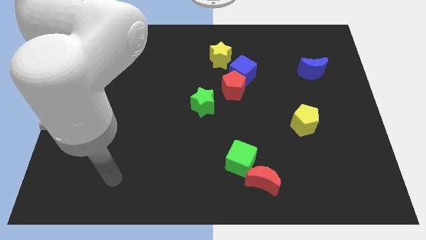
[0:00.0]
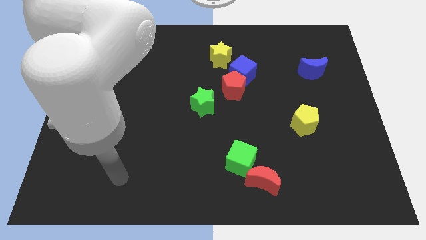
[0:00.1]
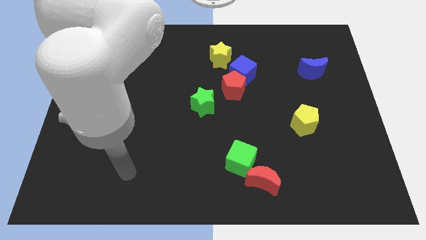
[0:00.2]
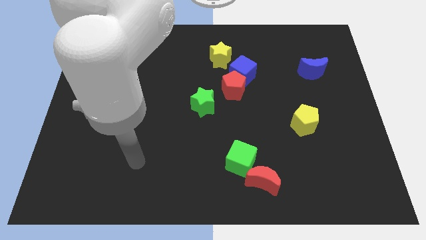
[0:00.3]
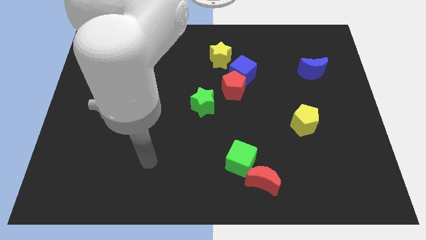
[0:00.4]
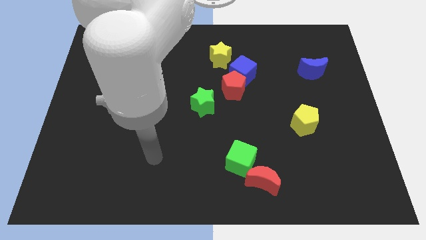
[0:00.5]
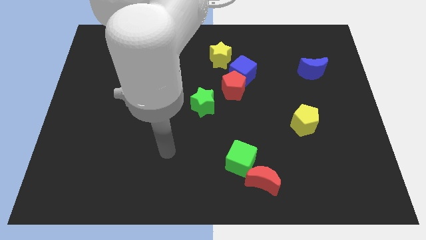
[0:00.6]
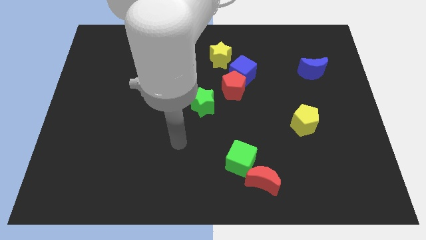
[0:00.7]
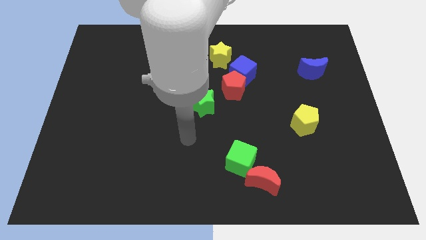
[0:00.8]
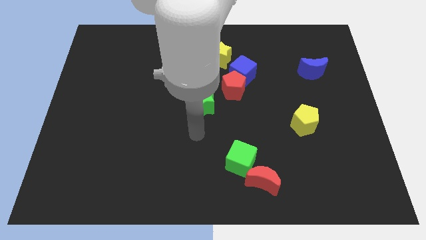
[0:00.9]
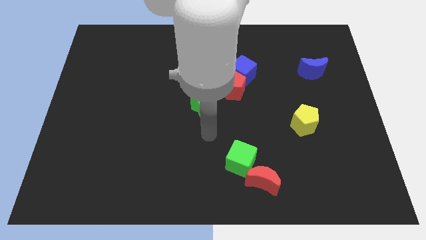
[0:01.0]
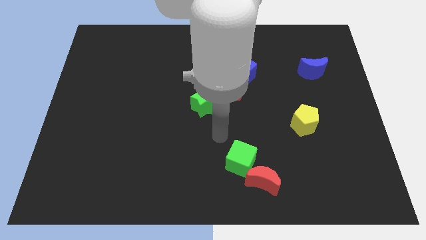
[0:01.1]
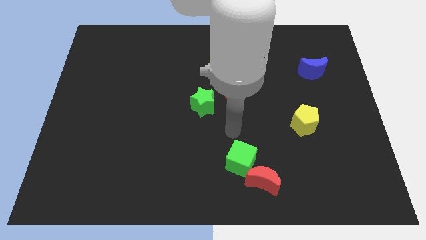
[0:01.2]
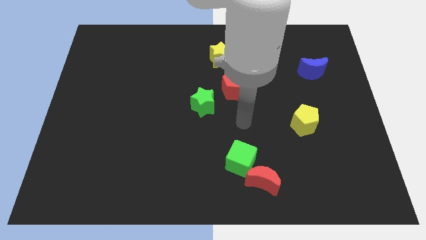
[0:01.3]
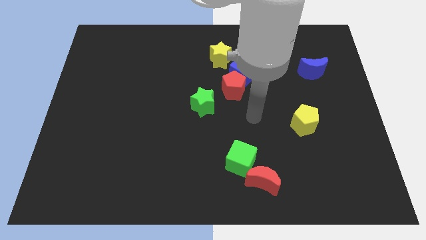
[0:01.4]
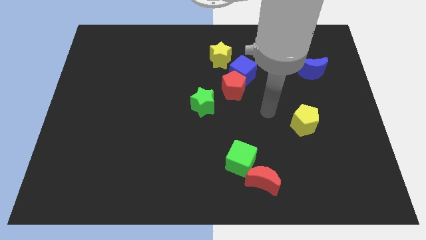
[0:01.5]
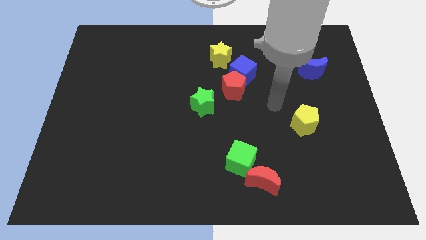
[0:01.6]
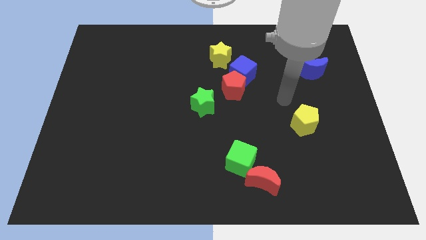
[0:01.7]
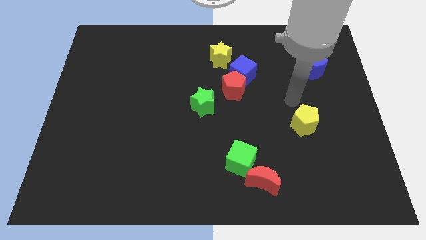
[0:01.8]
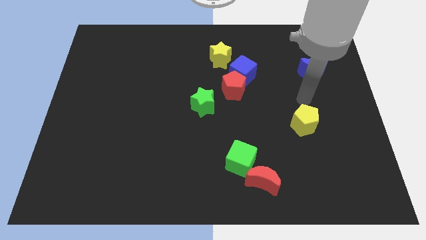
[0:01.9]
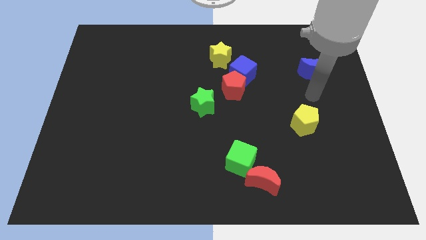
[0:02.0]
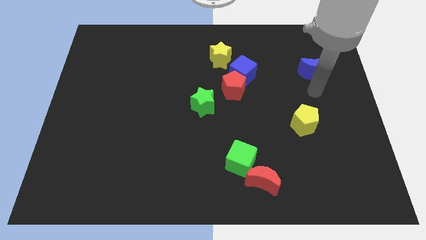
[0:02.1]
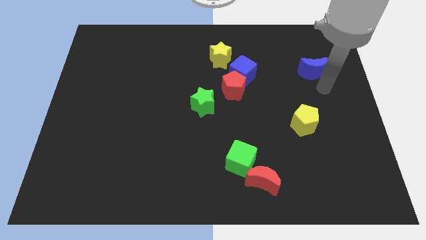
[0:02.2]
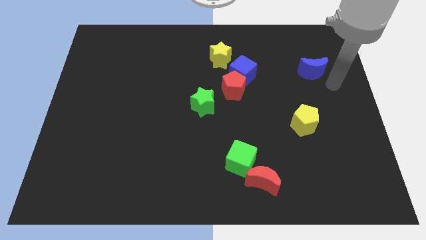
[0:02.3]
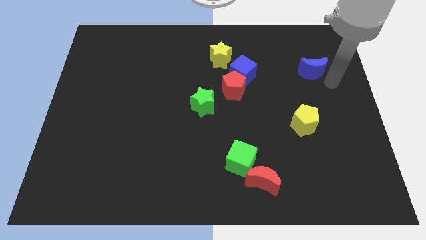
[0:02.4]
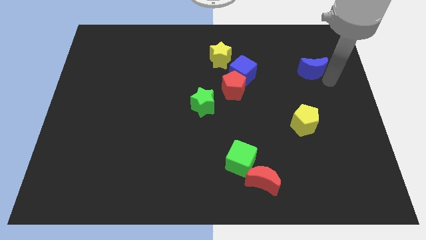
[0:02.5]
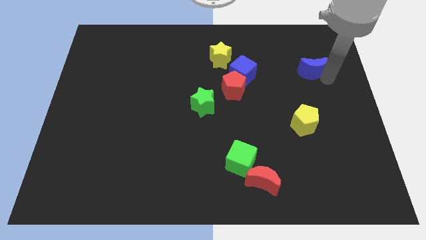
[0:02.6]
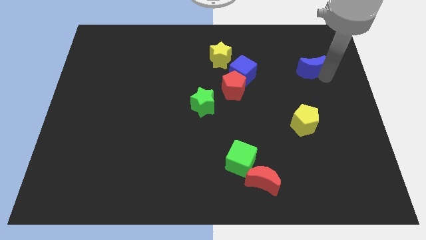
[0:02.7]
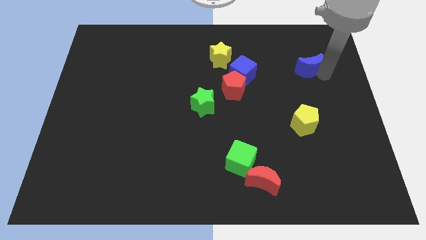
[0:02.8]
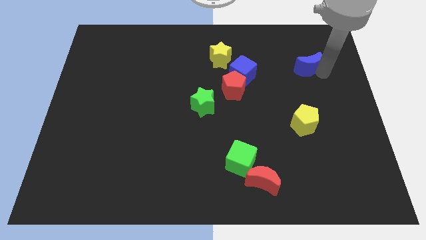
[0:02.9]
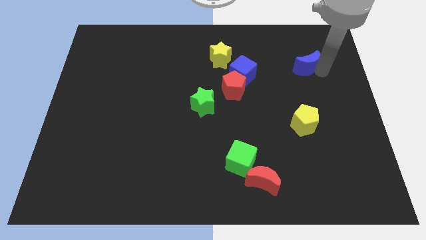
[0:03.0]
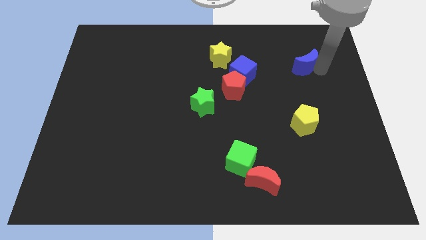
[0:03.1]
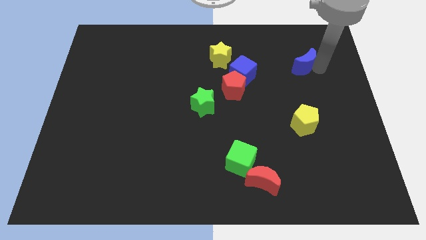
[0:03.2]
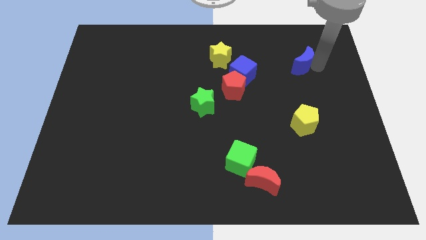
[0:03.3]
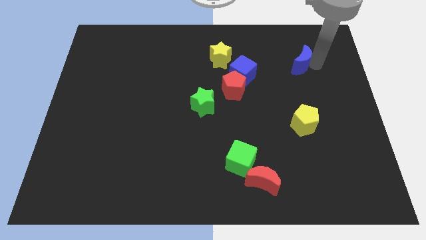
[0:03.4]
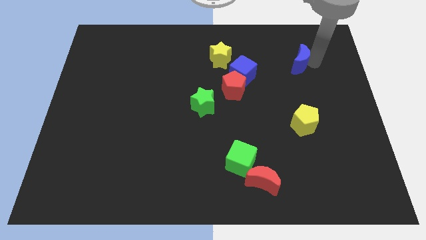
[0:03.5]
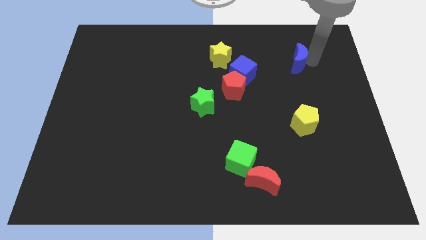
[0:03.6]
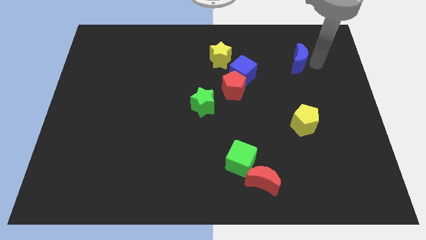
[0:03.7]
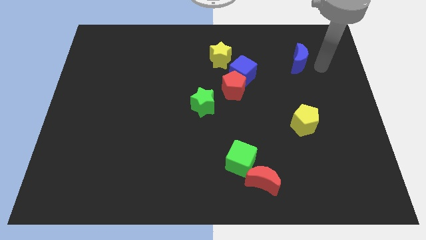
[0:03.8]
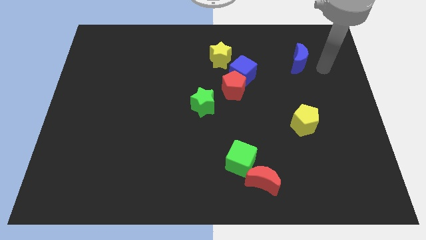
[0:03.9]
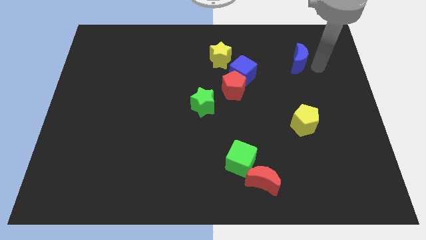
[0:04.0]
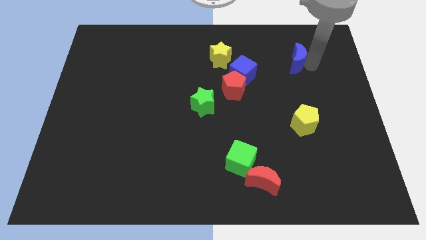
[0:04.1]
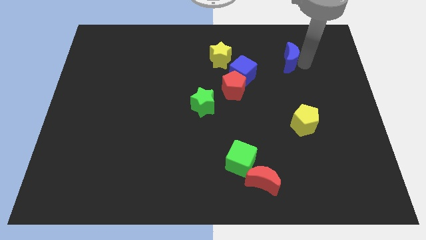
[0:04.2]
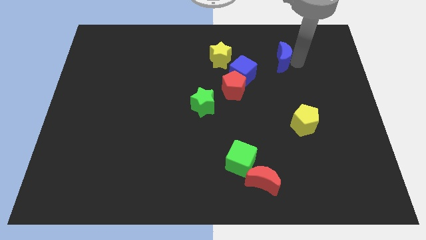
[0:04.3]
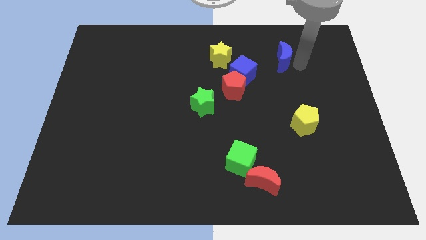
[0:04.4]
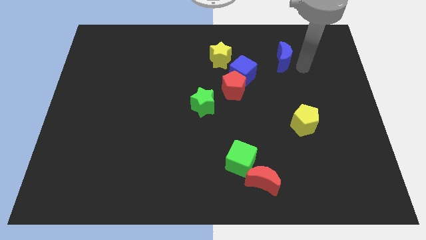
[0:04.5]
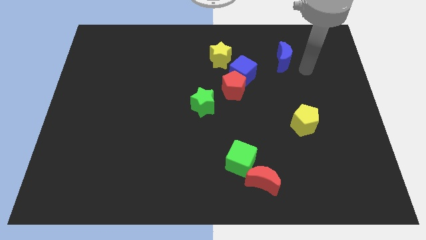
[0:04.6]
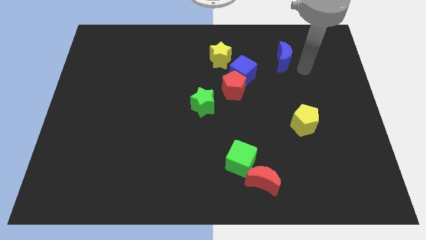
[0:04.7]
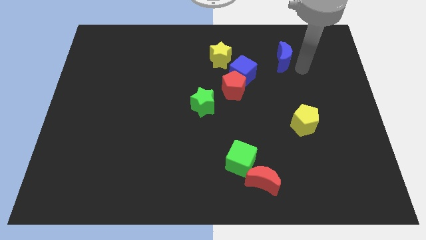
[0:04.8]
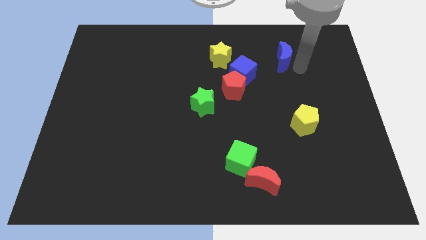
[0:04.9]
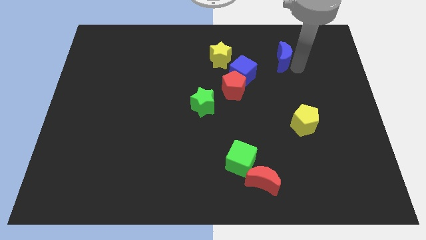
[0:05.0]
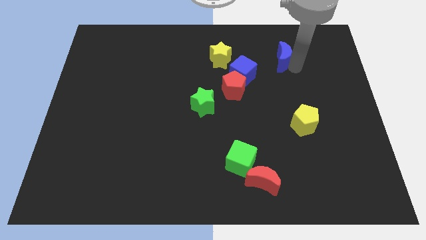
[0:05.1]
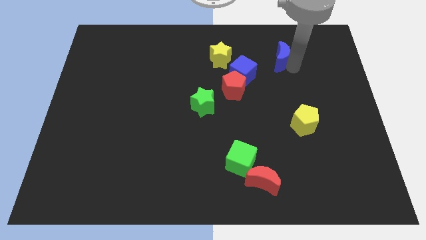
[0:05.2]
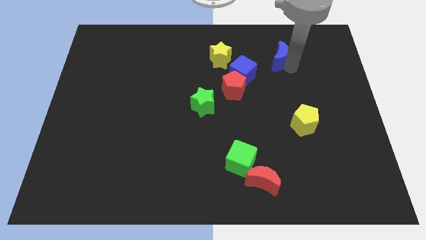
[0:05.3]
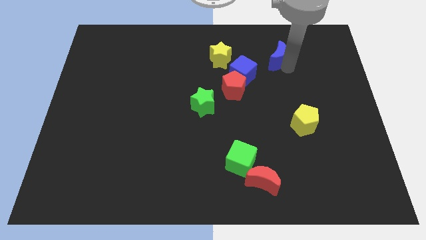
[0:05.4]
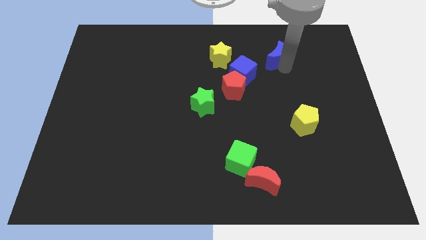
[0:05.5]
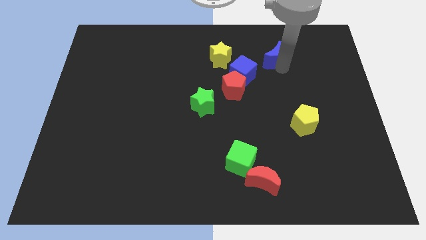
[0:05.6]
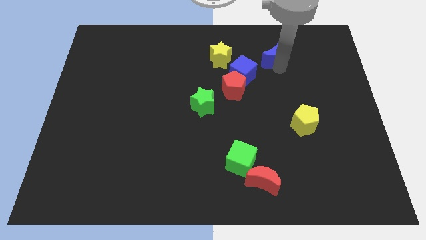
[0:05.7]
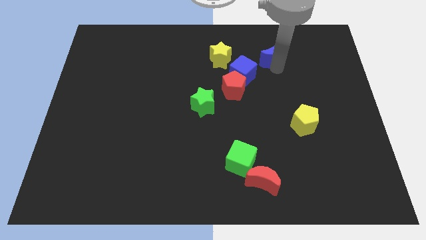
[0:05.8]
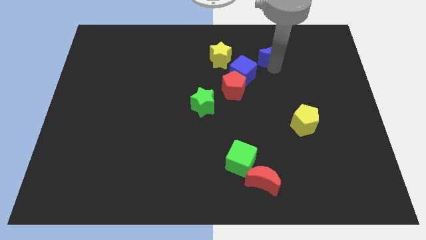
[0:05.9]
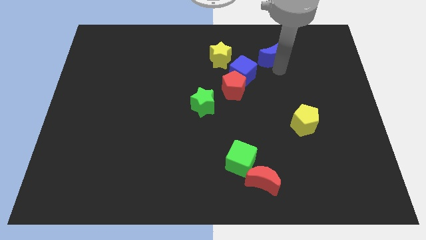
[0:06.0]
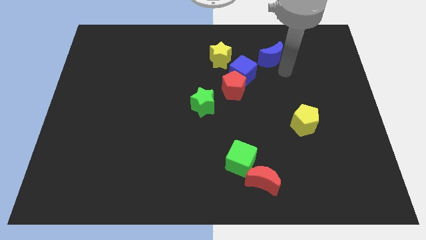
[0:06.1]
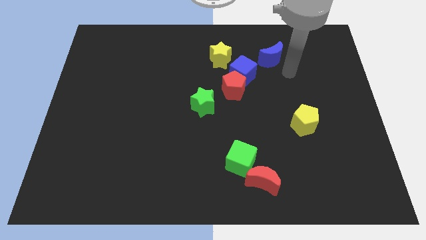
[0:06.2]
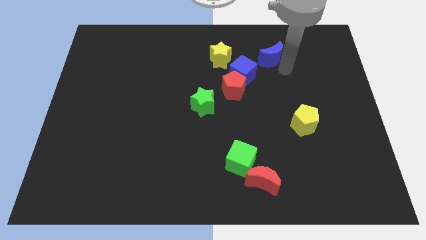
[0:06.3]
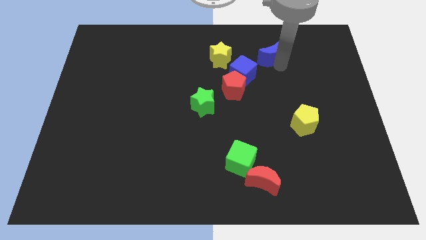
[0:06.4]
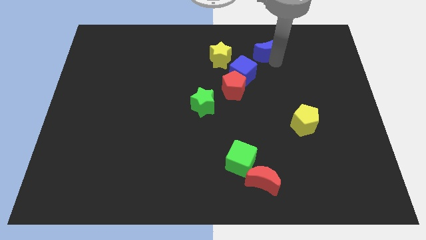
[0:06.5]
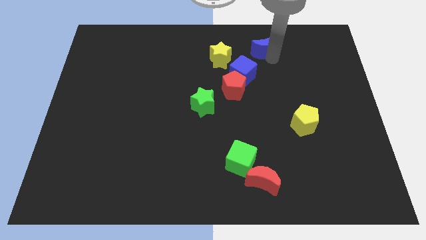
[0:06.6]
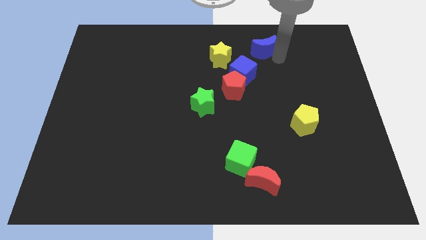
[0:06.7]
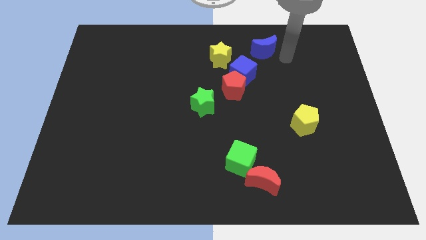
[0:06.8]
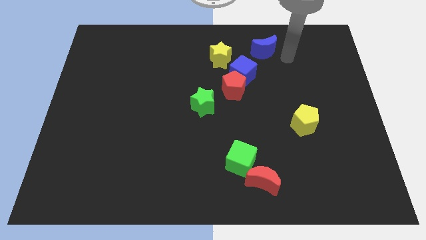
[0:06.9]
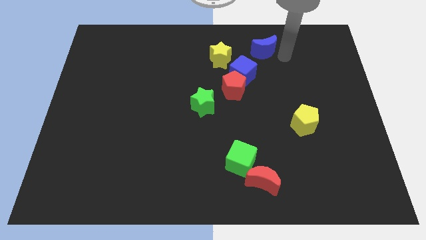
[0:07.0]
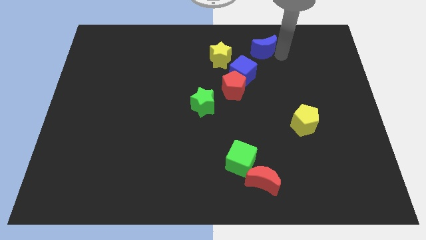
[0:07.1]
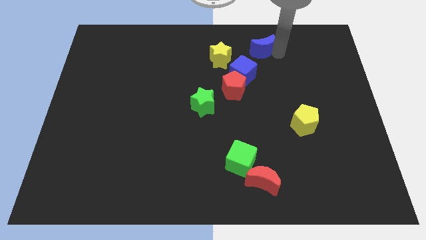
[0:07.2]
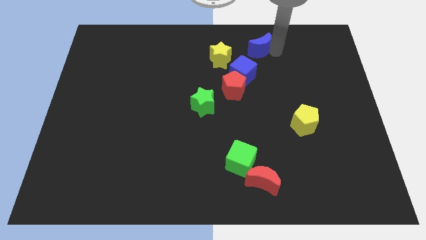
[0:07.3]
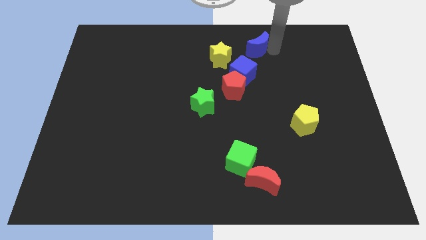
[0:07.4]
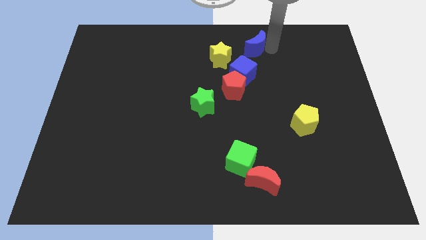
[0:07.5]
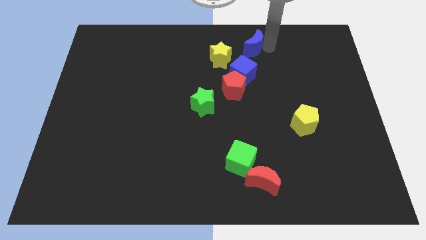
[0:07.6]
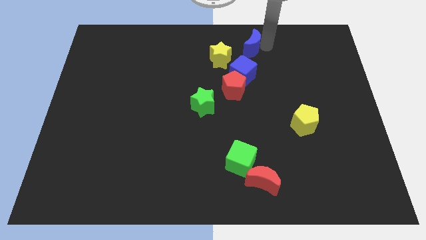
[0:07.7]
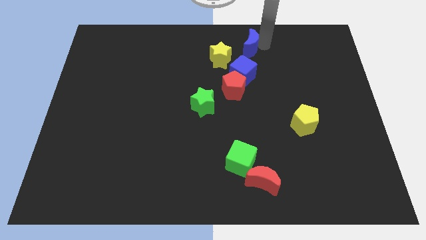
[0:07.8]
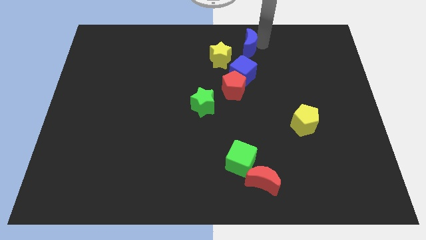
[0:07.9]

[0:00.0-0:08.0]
put the blue moon to the top
